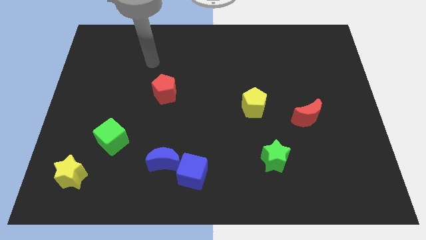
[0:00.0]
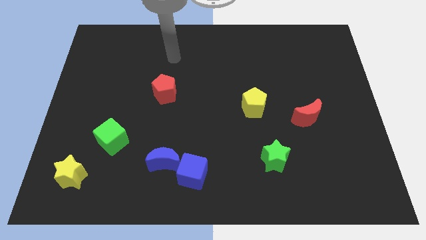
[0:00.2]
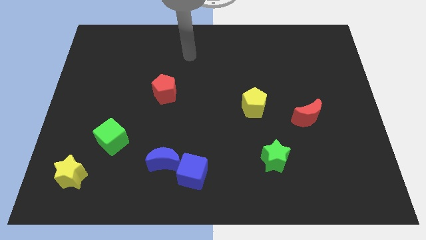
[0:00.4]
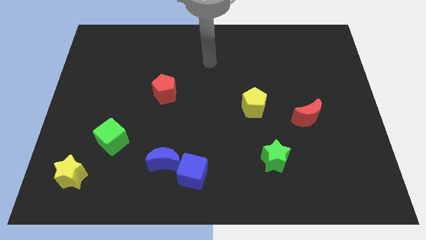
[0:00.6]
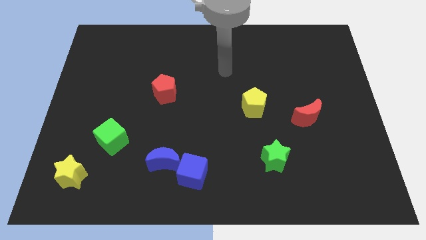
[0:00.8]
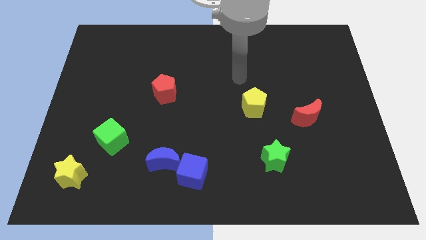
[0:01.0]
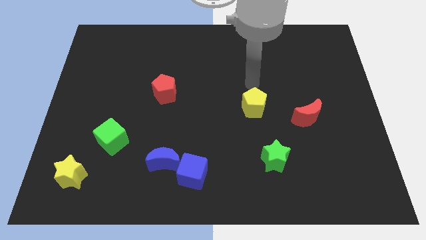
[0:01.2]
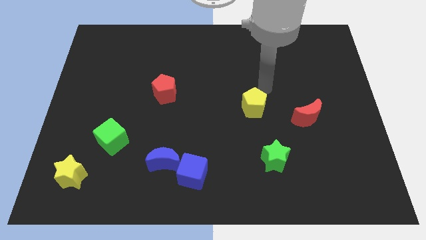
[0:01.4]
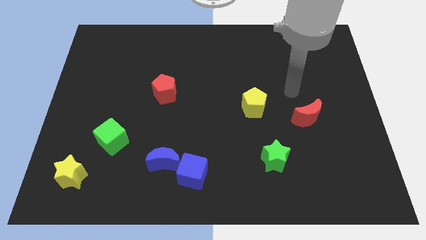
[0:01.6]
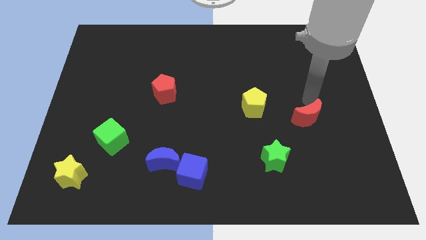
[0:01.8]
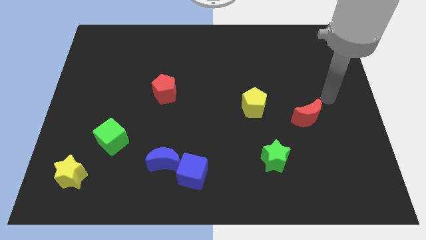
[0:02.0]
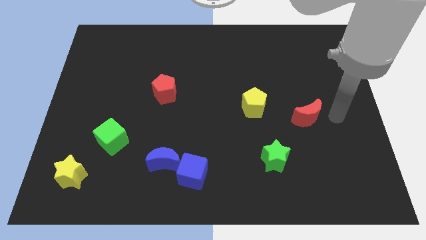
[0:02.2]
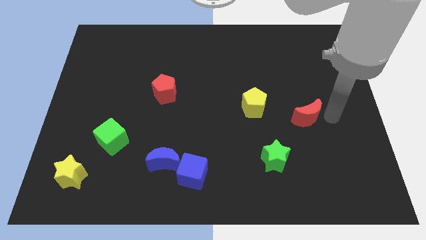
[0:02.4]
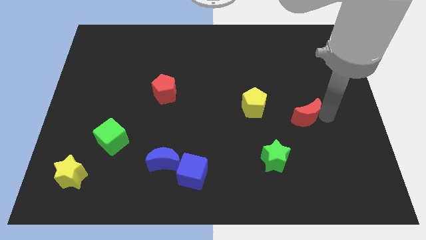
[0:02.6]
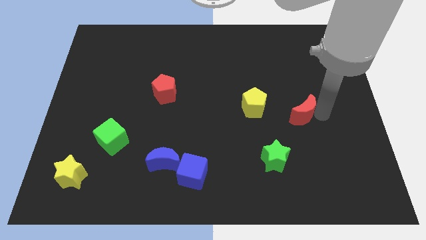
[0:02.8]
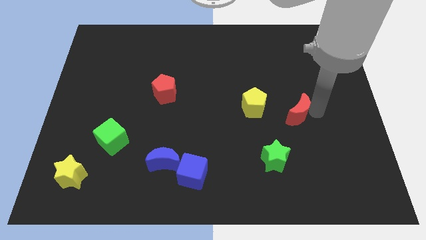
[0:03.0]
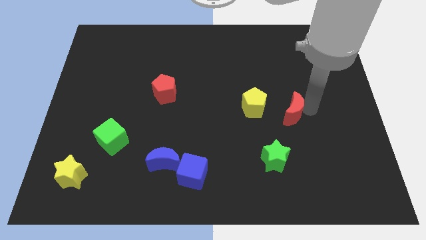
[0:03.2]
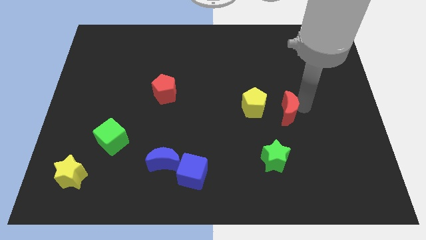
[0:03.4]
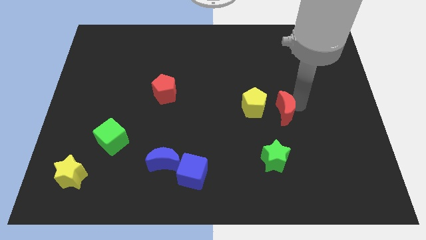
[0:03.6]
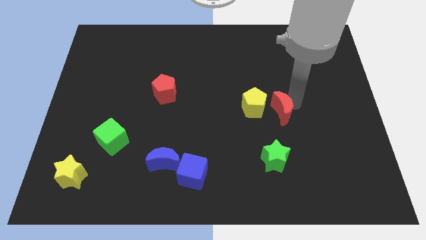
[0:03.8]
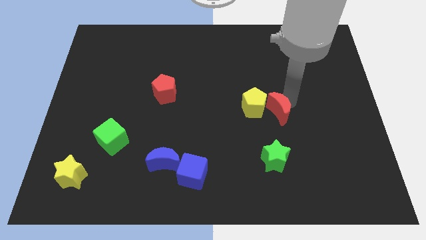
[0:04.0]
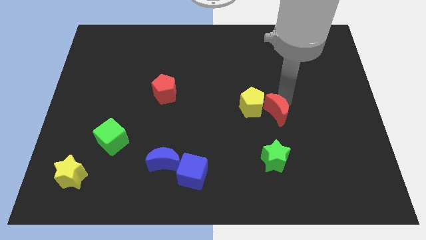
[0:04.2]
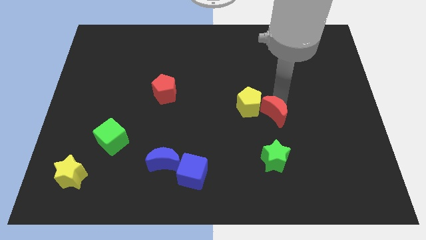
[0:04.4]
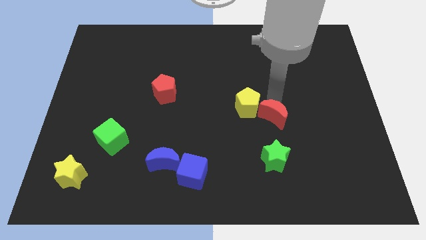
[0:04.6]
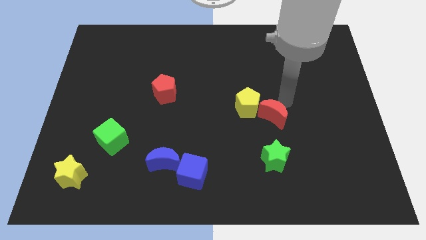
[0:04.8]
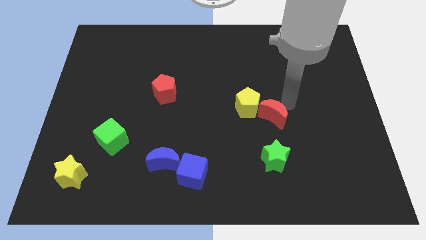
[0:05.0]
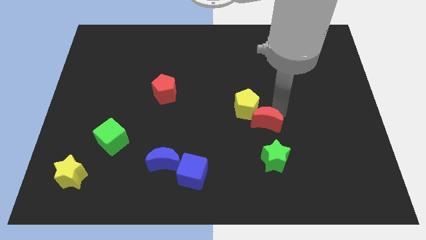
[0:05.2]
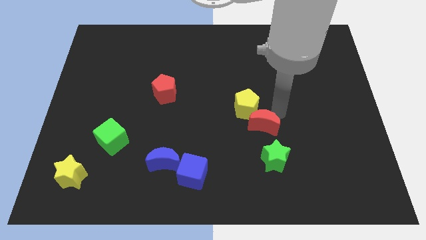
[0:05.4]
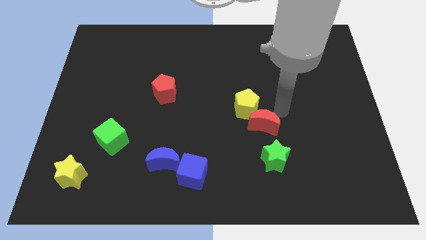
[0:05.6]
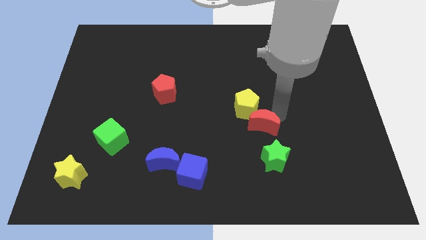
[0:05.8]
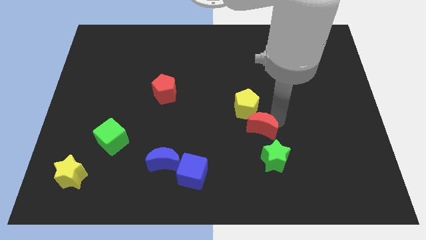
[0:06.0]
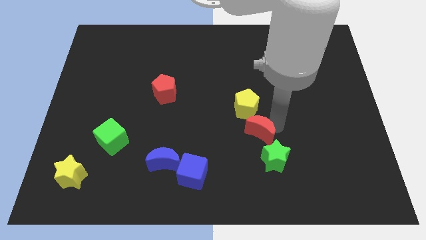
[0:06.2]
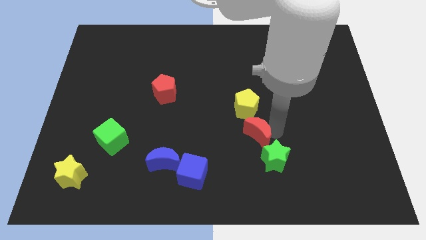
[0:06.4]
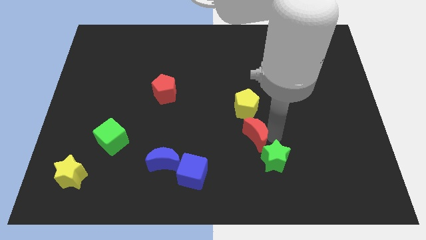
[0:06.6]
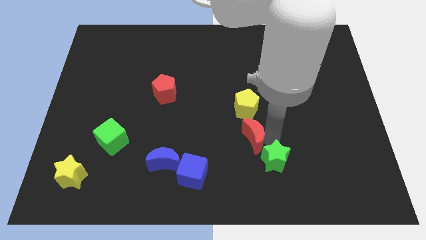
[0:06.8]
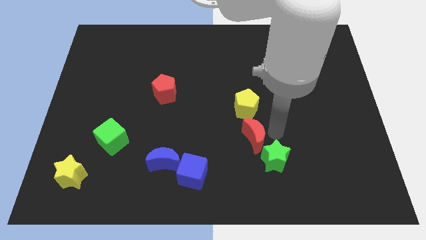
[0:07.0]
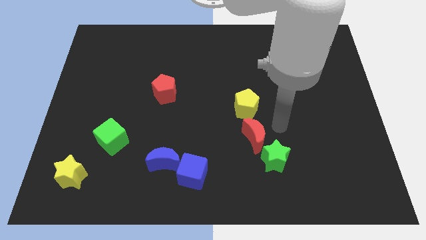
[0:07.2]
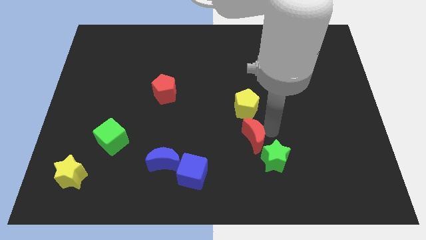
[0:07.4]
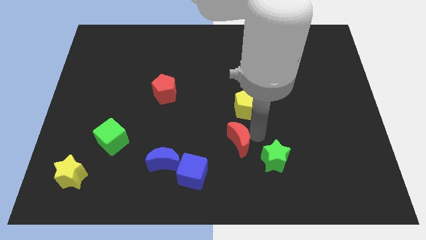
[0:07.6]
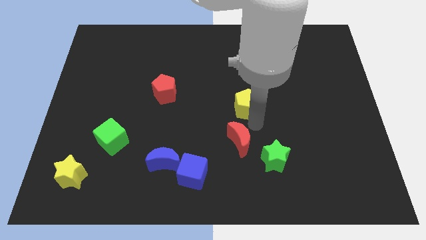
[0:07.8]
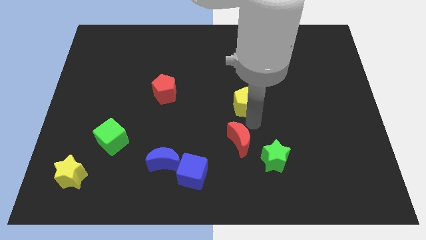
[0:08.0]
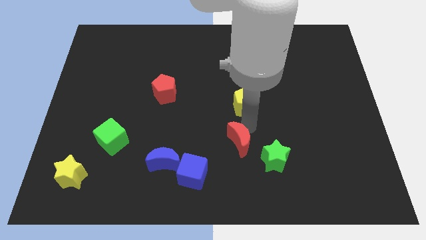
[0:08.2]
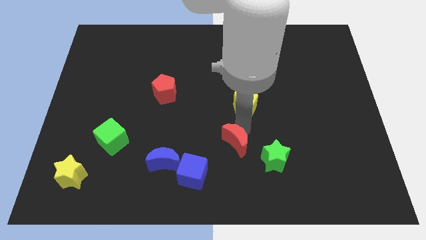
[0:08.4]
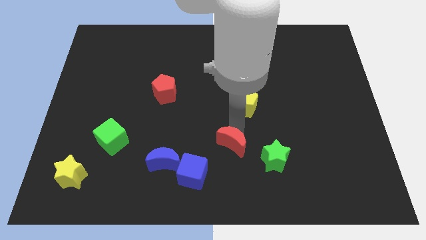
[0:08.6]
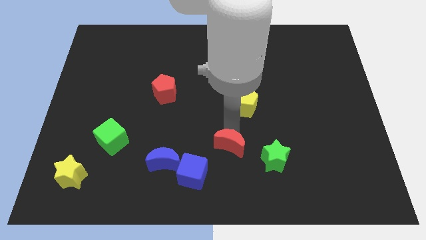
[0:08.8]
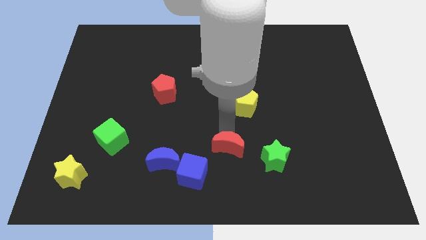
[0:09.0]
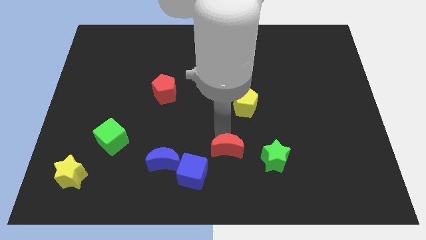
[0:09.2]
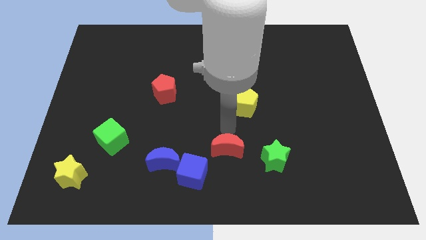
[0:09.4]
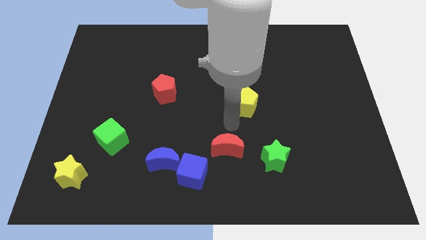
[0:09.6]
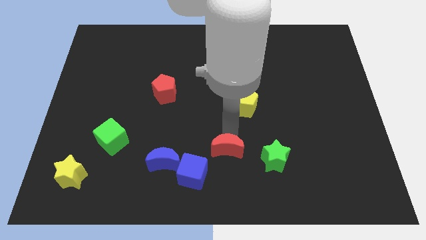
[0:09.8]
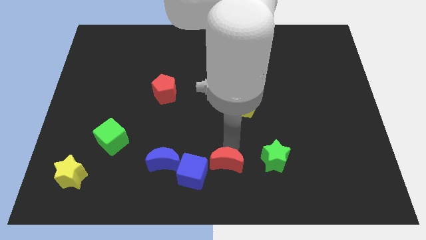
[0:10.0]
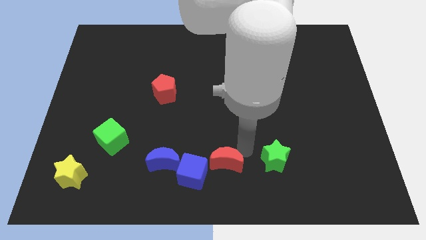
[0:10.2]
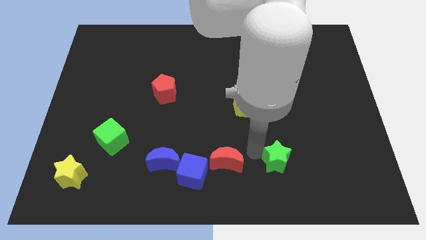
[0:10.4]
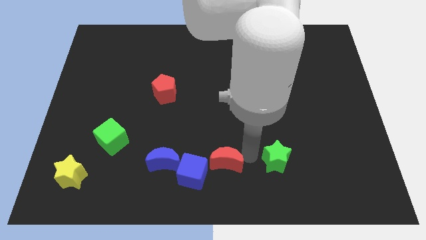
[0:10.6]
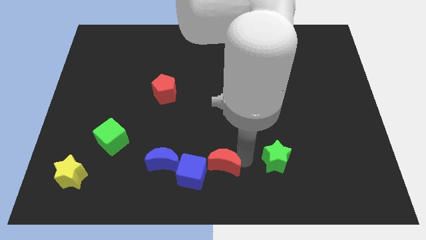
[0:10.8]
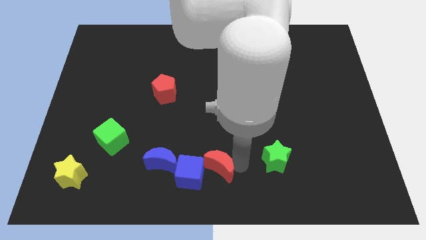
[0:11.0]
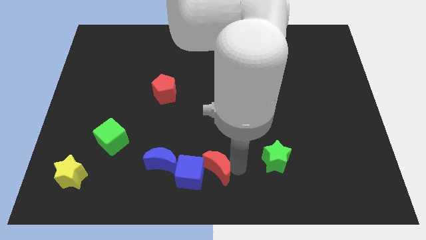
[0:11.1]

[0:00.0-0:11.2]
move the red moon next to the blue cube

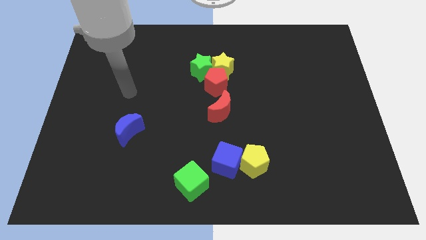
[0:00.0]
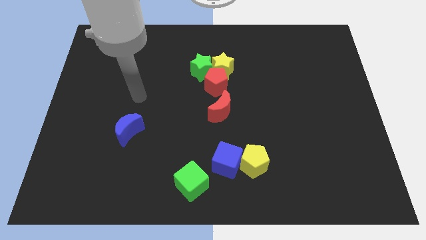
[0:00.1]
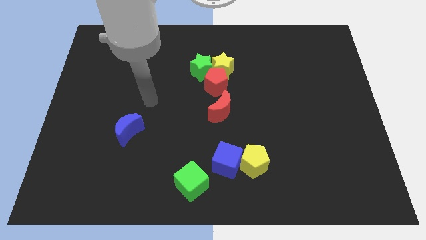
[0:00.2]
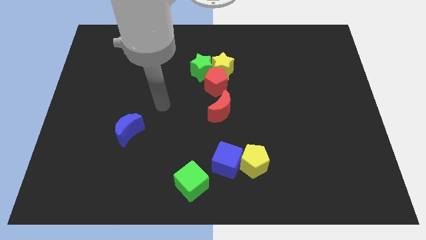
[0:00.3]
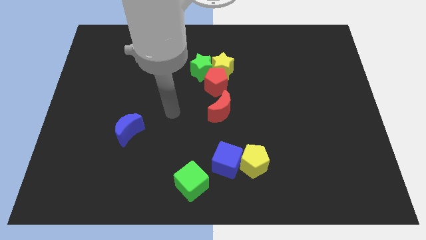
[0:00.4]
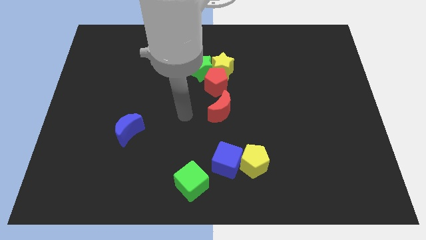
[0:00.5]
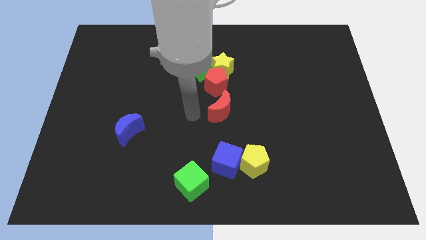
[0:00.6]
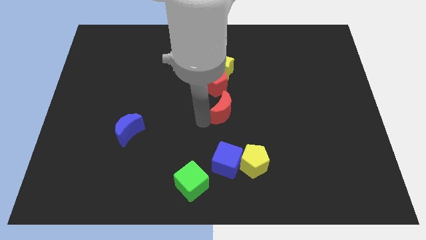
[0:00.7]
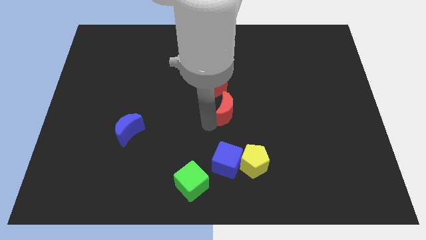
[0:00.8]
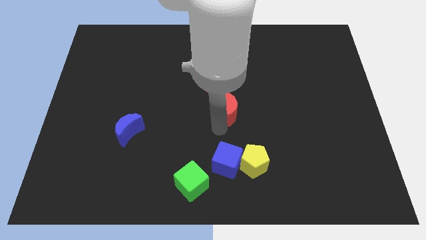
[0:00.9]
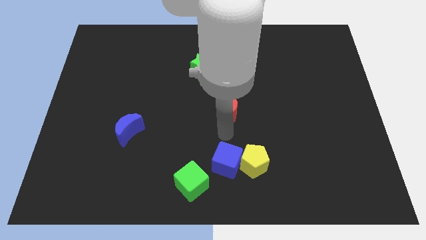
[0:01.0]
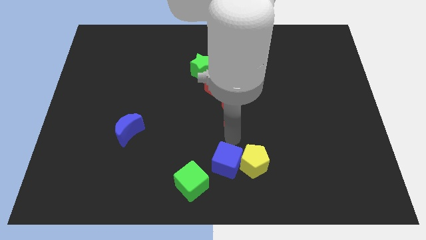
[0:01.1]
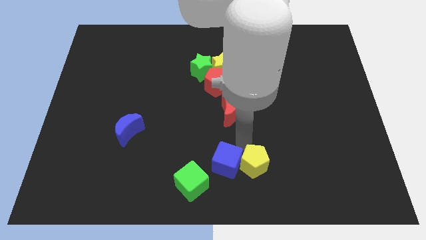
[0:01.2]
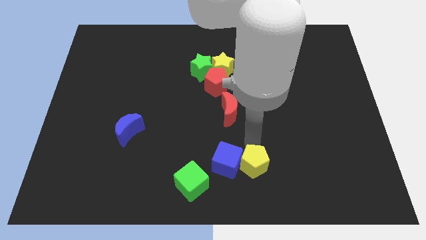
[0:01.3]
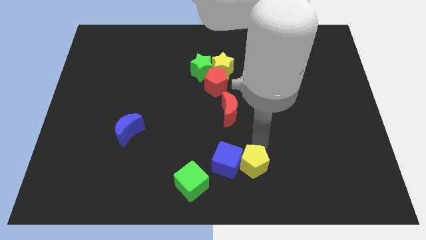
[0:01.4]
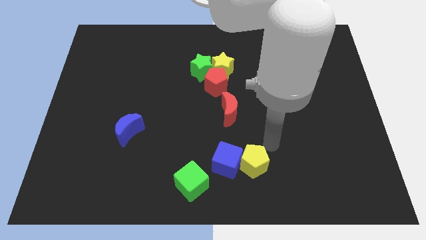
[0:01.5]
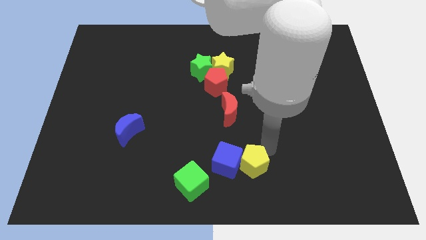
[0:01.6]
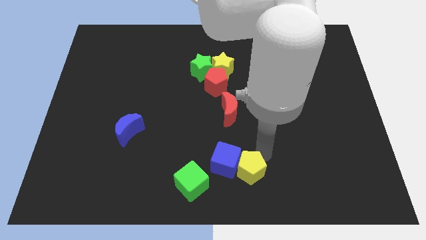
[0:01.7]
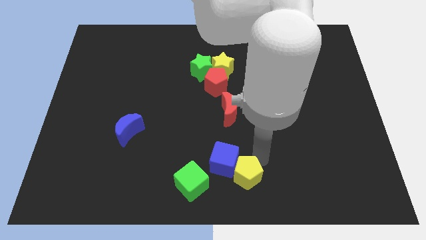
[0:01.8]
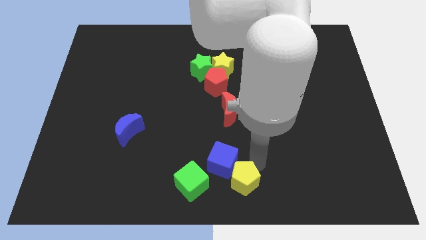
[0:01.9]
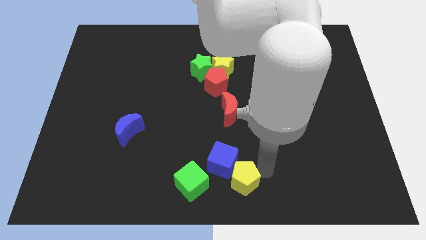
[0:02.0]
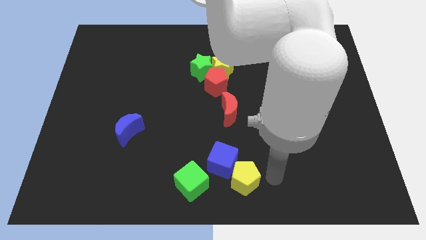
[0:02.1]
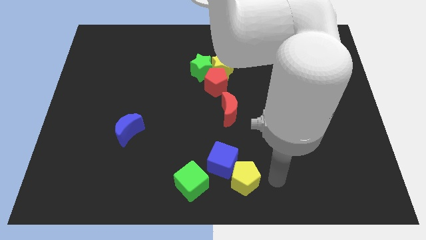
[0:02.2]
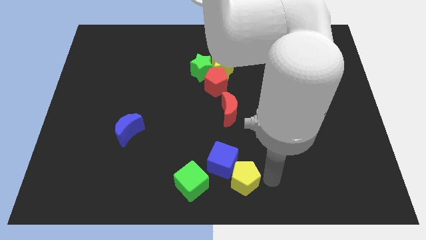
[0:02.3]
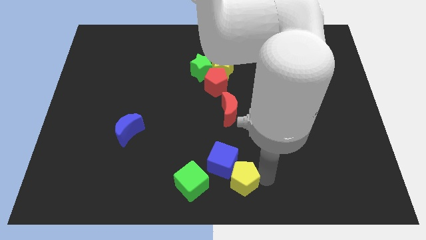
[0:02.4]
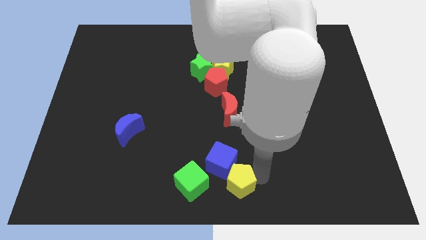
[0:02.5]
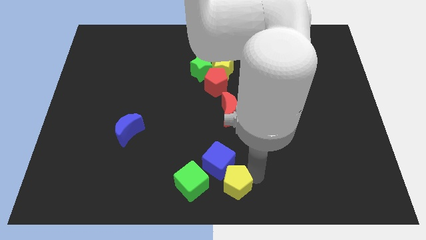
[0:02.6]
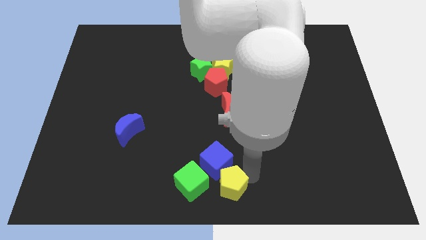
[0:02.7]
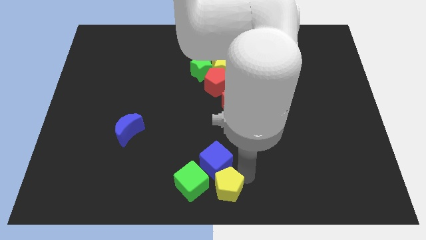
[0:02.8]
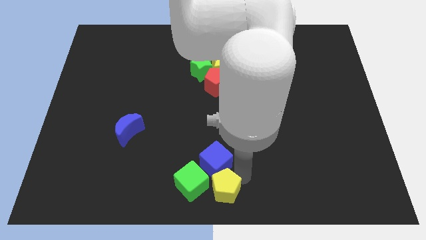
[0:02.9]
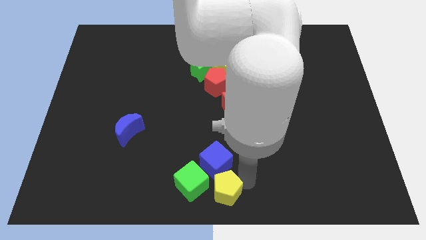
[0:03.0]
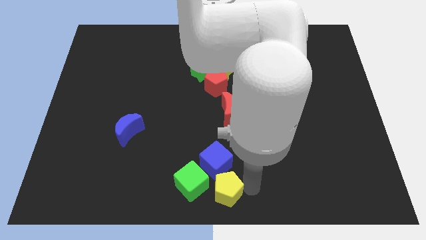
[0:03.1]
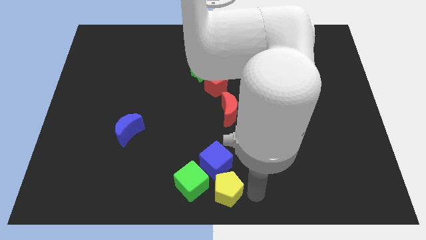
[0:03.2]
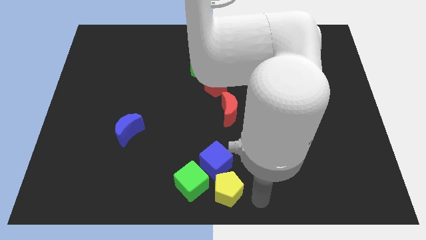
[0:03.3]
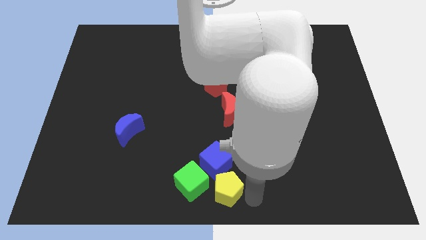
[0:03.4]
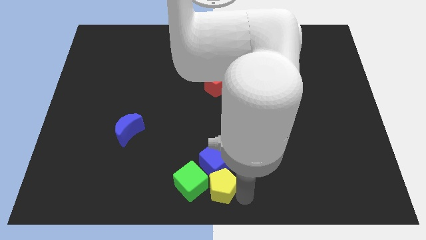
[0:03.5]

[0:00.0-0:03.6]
move the yellow pentagon towards the green cube
